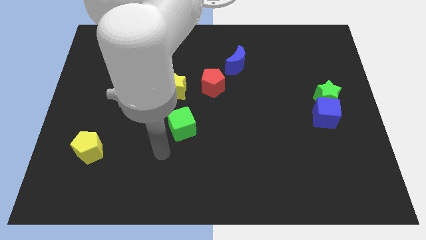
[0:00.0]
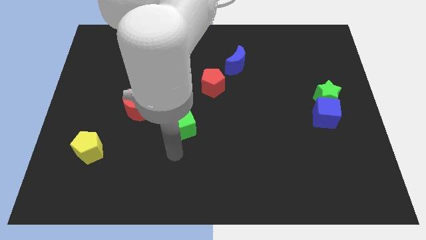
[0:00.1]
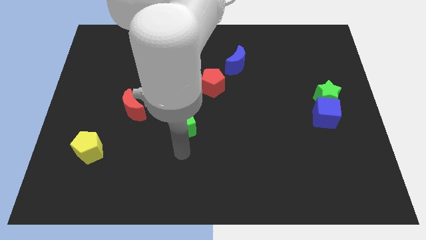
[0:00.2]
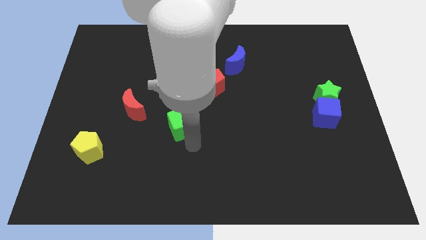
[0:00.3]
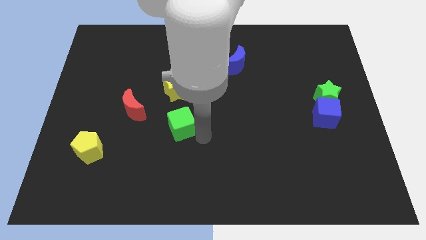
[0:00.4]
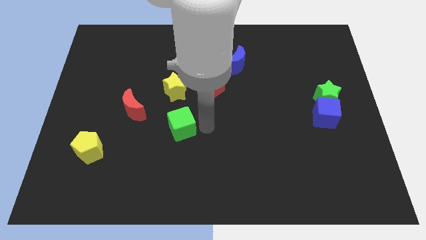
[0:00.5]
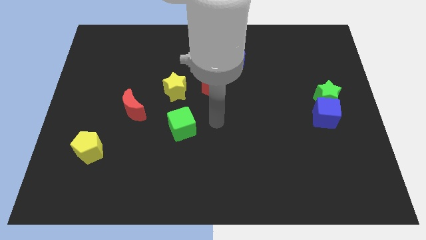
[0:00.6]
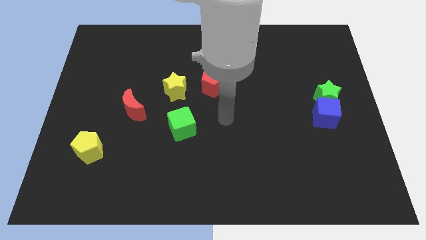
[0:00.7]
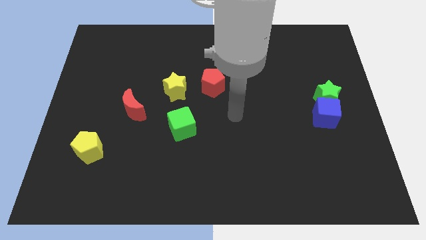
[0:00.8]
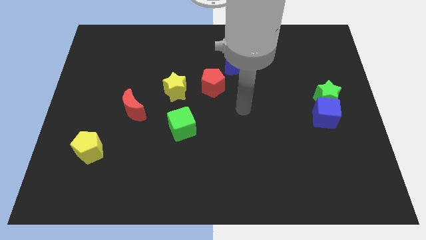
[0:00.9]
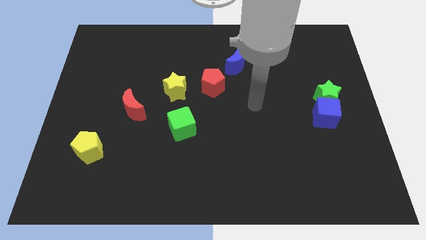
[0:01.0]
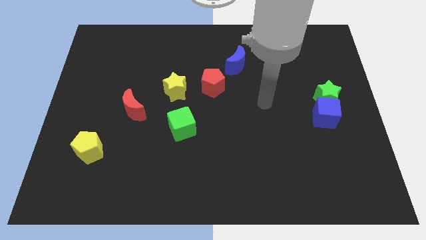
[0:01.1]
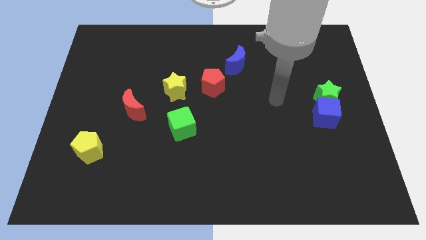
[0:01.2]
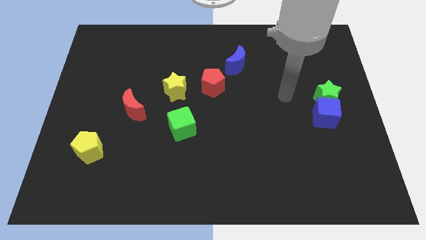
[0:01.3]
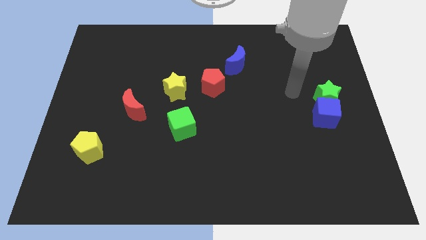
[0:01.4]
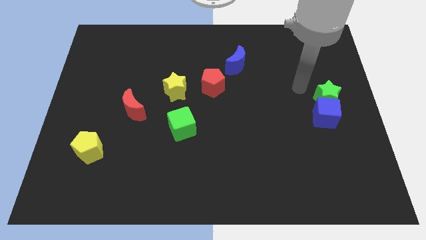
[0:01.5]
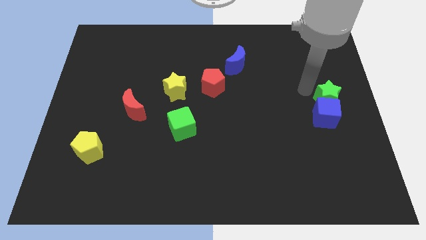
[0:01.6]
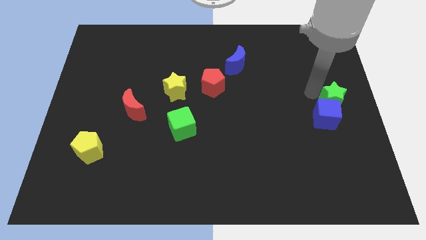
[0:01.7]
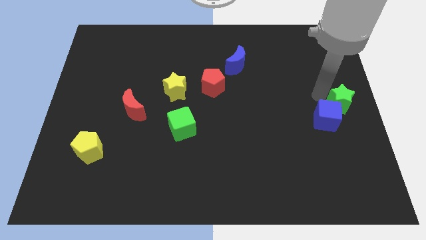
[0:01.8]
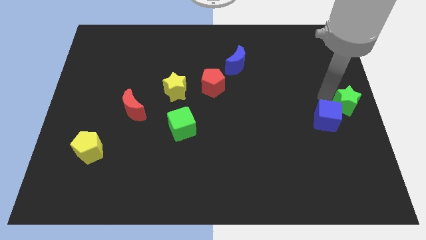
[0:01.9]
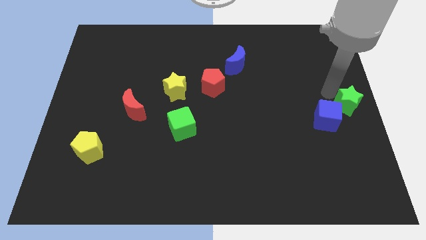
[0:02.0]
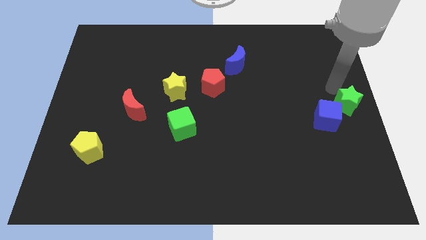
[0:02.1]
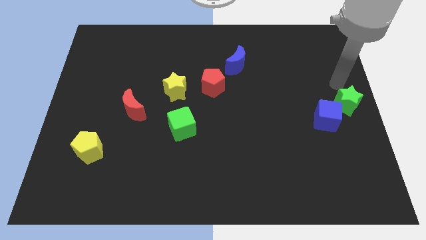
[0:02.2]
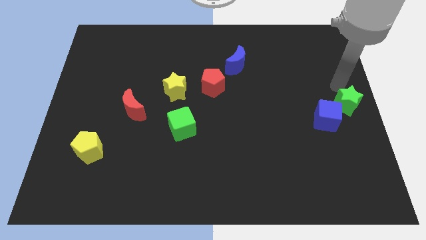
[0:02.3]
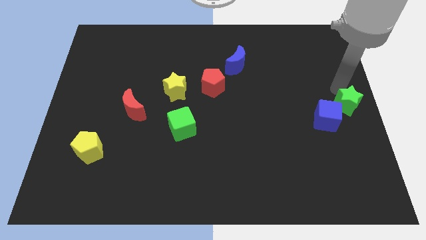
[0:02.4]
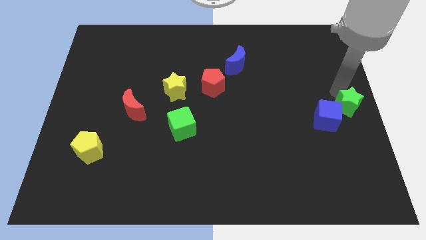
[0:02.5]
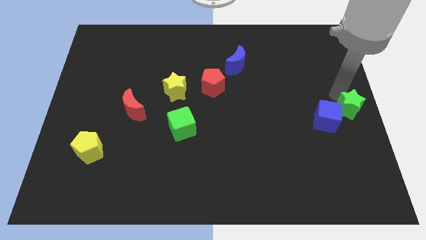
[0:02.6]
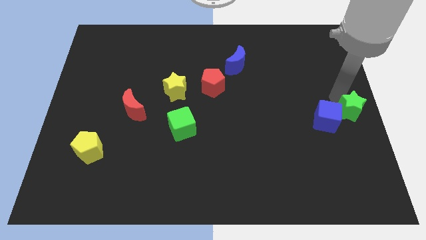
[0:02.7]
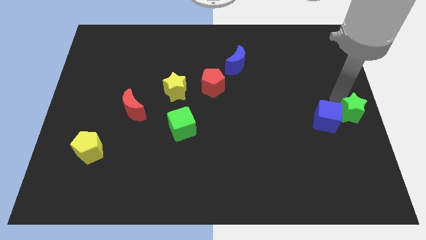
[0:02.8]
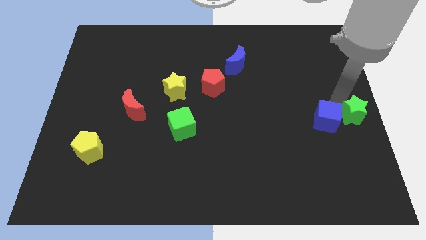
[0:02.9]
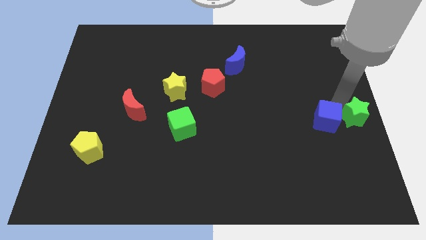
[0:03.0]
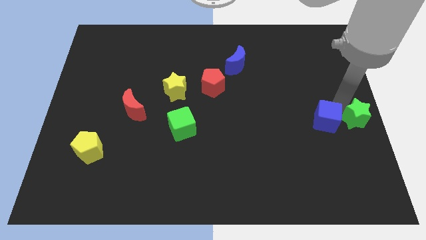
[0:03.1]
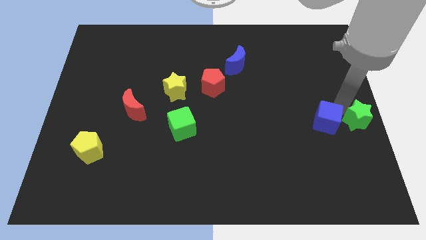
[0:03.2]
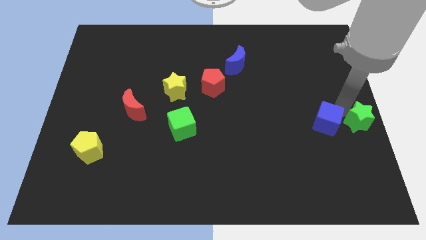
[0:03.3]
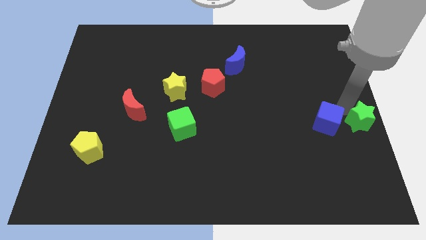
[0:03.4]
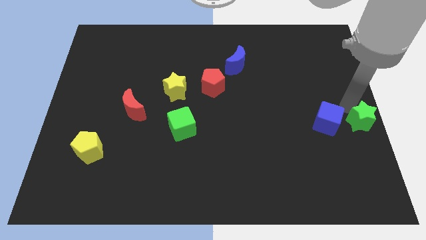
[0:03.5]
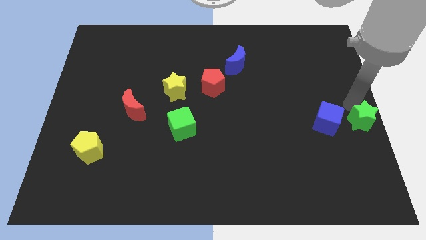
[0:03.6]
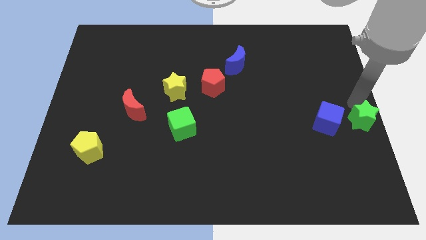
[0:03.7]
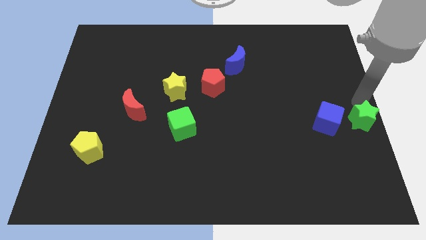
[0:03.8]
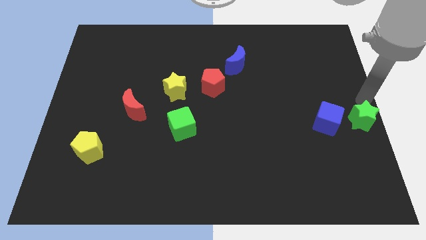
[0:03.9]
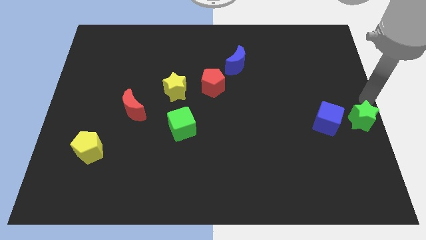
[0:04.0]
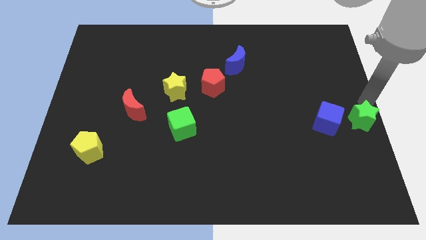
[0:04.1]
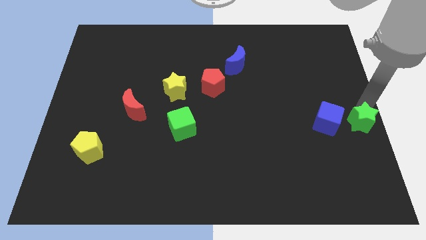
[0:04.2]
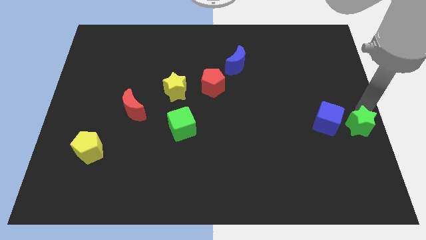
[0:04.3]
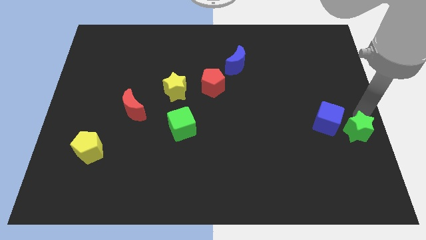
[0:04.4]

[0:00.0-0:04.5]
slightly push the green star downwards

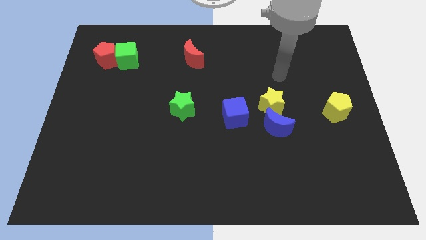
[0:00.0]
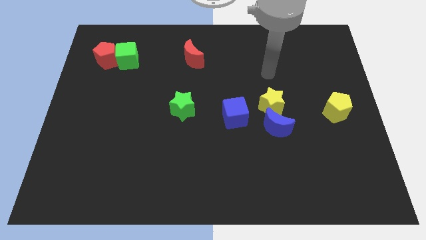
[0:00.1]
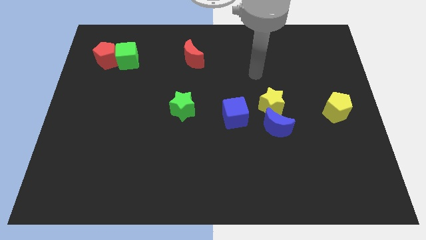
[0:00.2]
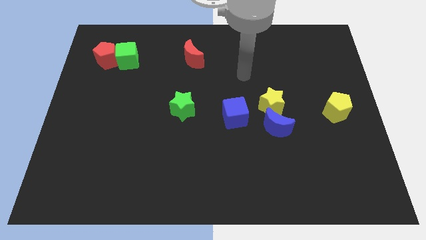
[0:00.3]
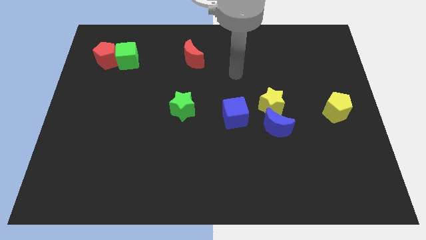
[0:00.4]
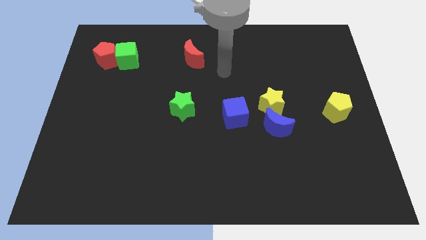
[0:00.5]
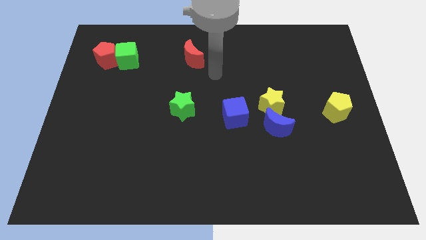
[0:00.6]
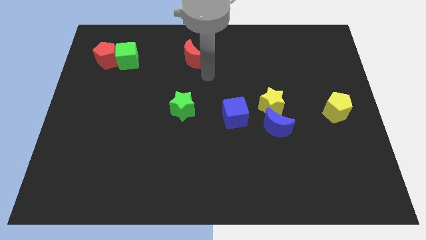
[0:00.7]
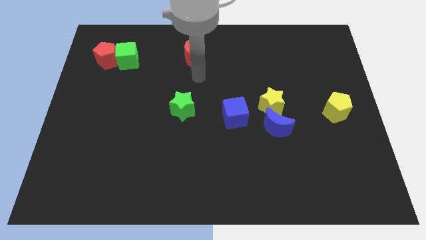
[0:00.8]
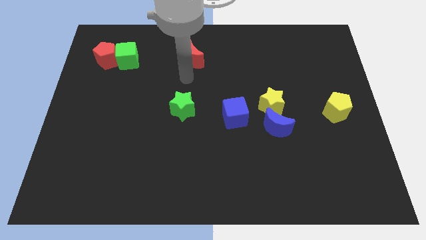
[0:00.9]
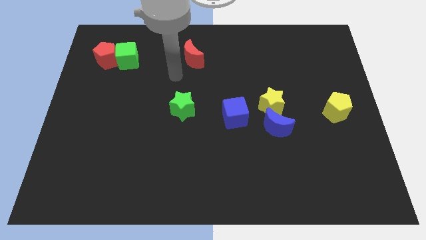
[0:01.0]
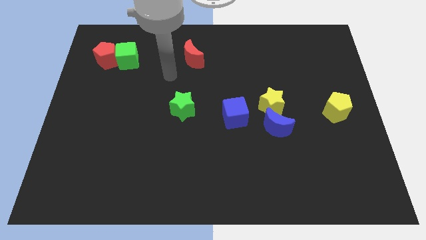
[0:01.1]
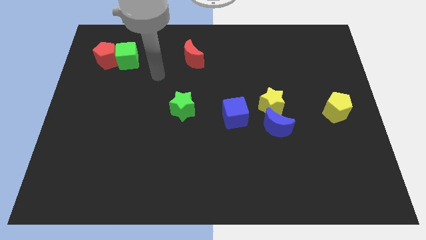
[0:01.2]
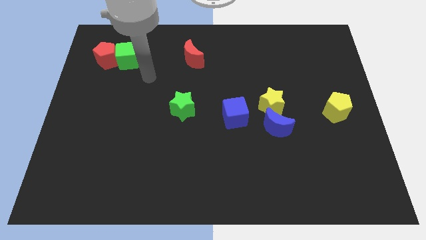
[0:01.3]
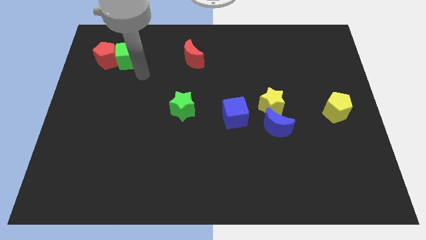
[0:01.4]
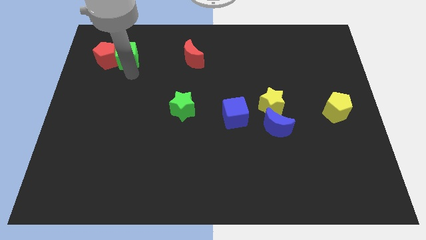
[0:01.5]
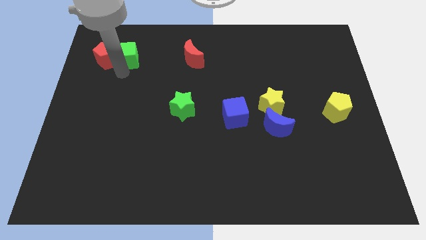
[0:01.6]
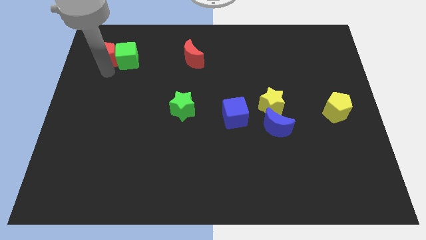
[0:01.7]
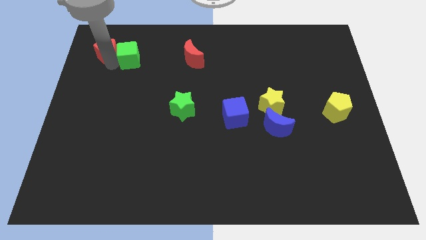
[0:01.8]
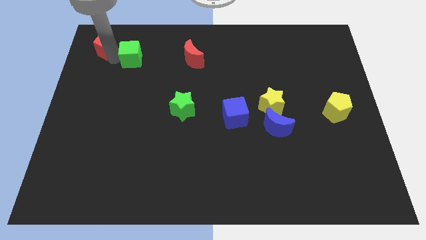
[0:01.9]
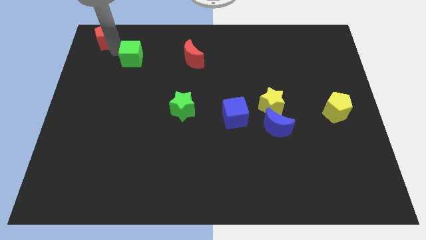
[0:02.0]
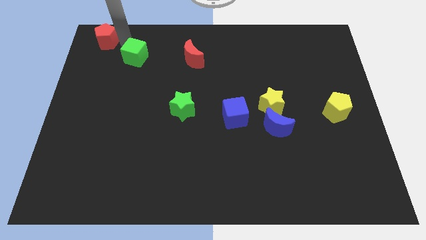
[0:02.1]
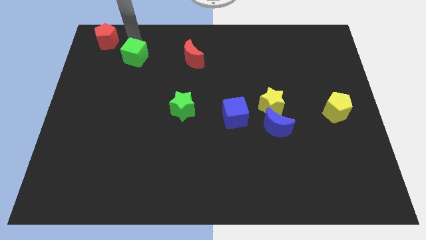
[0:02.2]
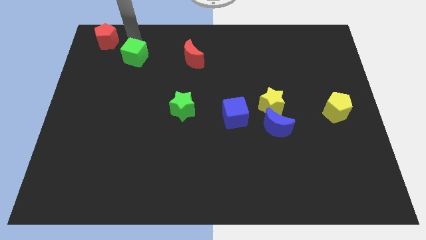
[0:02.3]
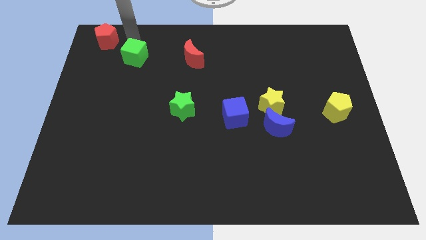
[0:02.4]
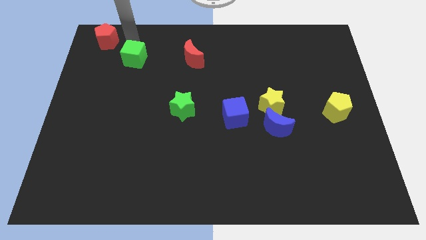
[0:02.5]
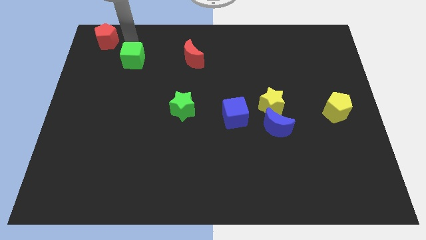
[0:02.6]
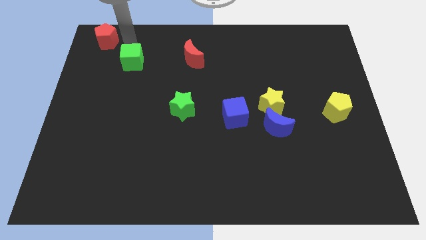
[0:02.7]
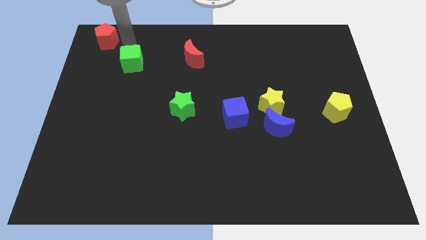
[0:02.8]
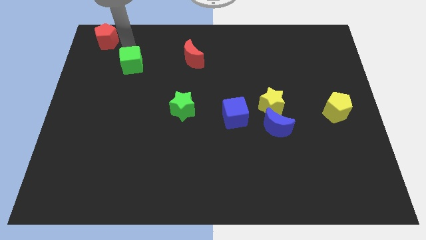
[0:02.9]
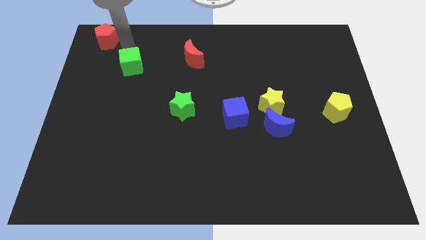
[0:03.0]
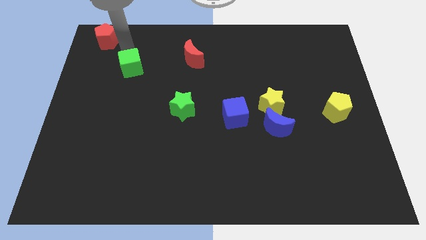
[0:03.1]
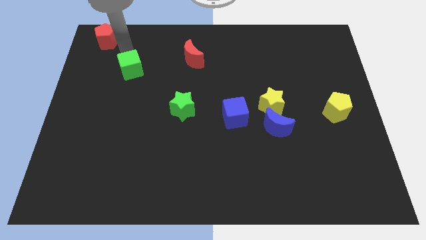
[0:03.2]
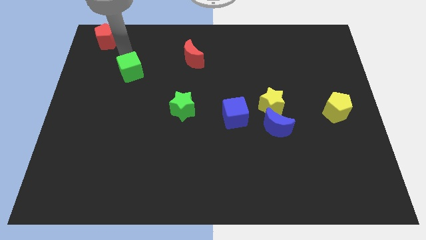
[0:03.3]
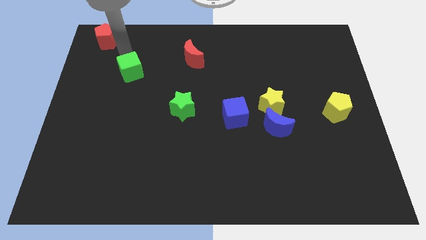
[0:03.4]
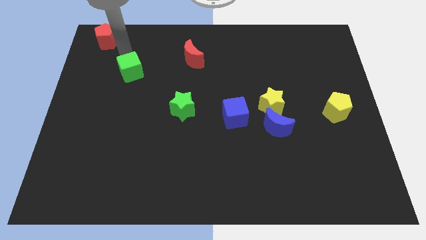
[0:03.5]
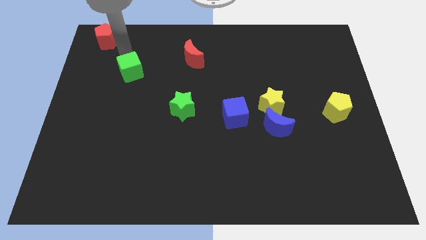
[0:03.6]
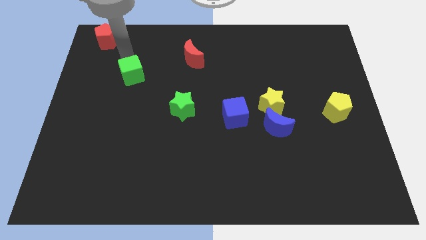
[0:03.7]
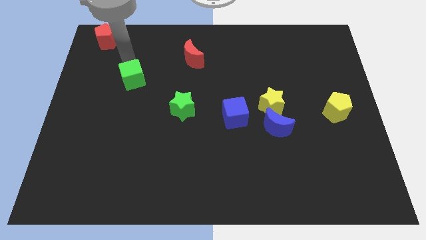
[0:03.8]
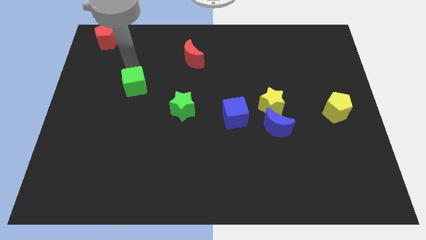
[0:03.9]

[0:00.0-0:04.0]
slide the green cube down a little
